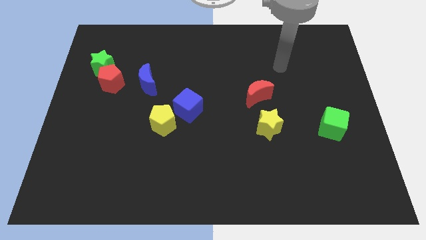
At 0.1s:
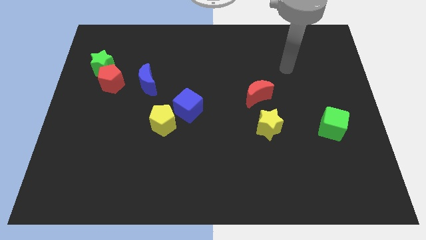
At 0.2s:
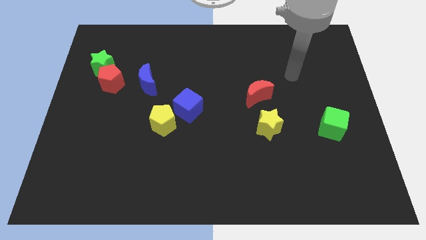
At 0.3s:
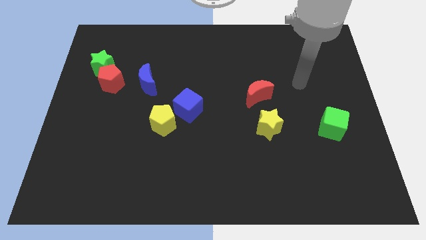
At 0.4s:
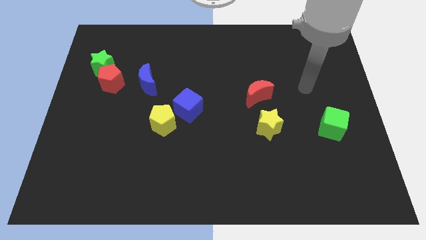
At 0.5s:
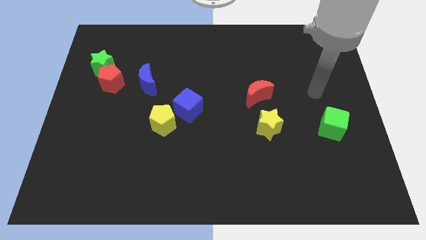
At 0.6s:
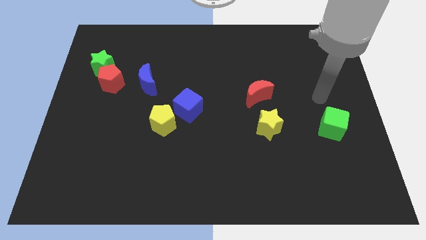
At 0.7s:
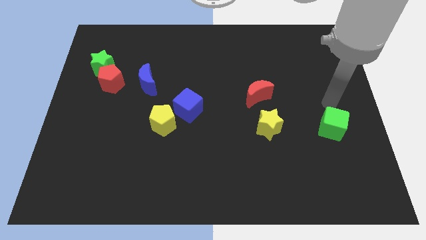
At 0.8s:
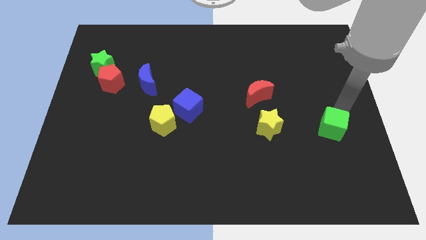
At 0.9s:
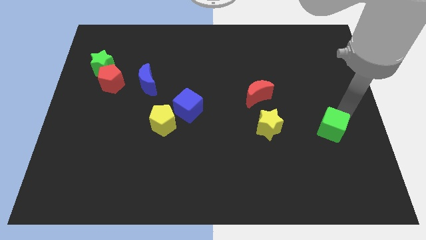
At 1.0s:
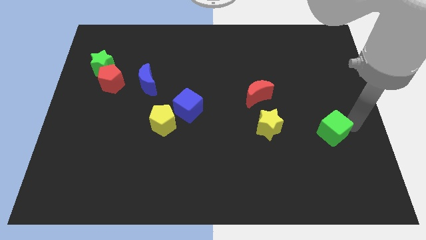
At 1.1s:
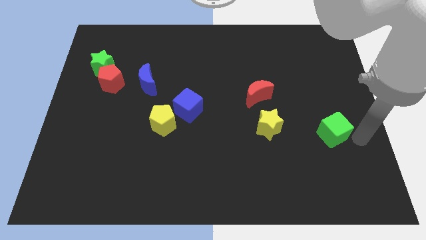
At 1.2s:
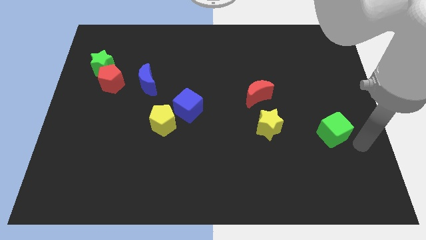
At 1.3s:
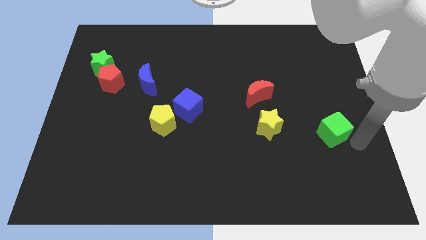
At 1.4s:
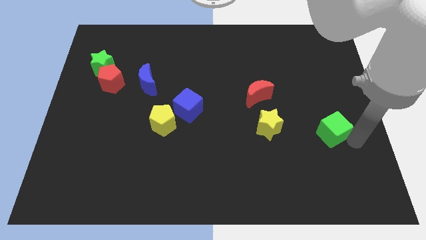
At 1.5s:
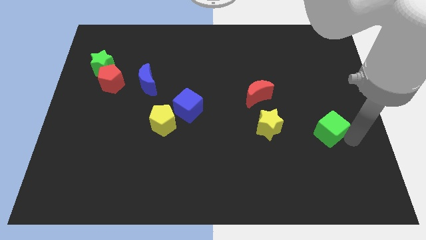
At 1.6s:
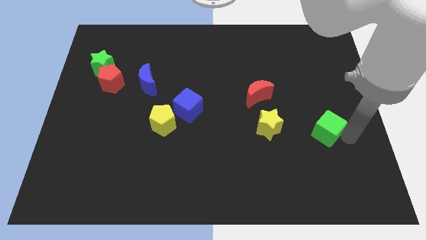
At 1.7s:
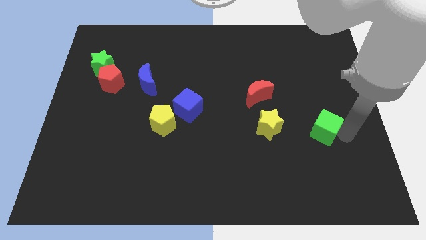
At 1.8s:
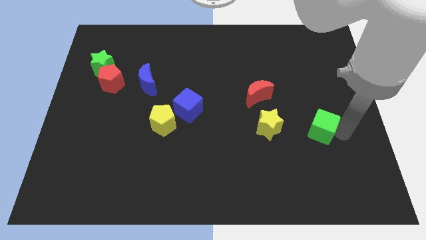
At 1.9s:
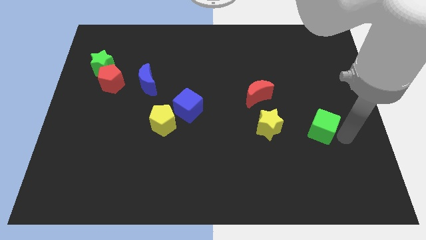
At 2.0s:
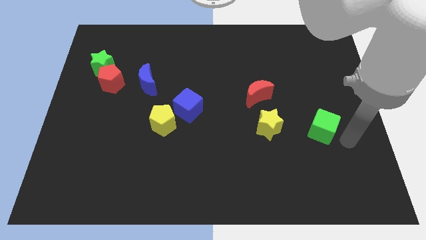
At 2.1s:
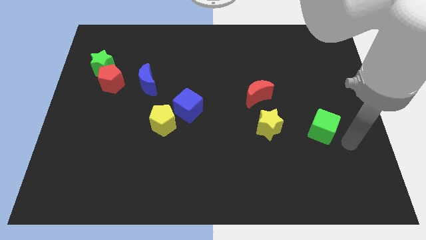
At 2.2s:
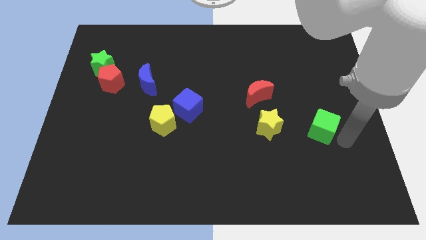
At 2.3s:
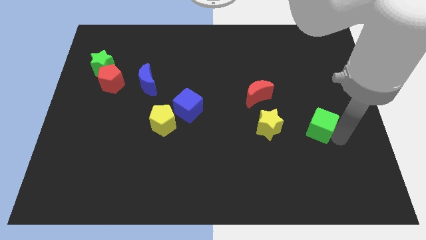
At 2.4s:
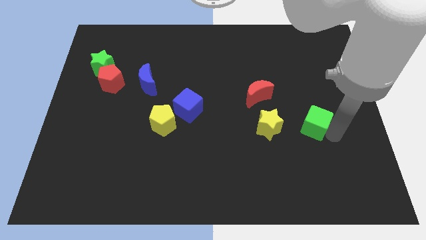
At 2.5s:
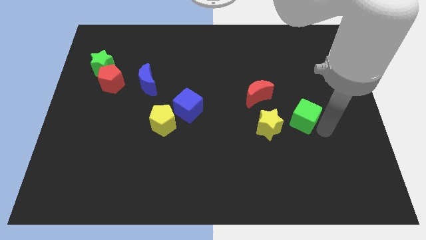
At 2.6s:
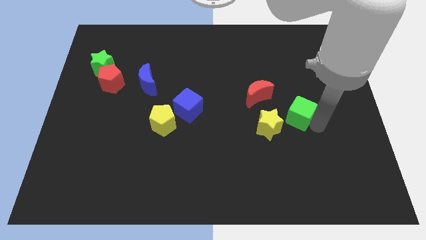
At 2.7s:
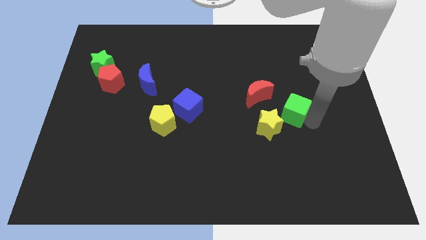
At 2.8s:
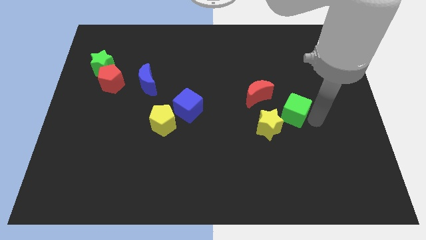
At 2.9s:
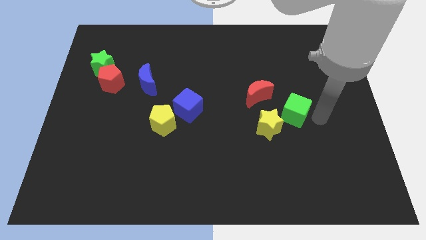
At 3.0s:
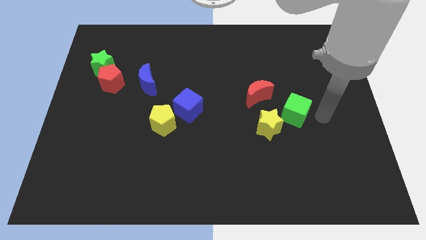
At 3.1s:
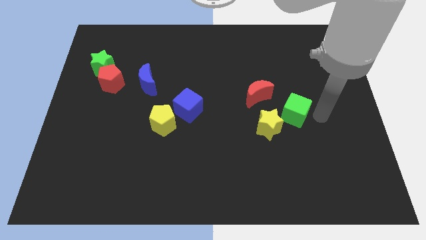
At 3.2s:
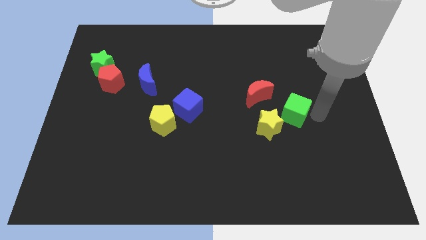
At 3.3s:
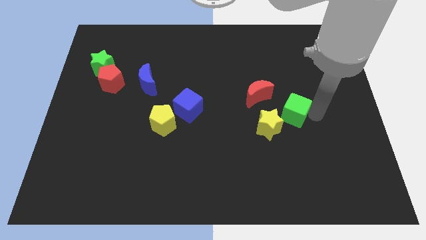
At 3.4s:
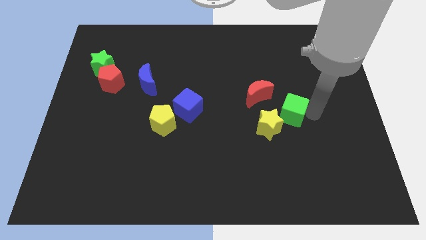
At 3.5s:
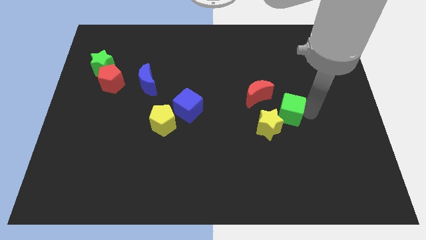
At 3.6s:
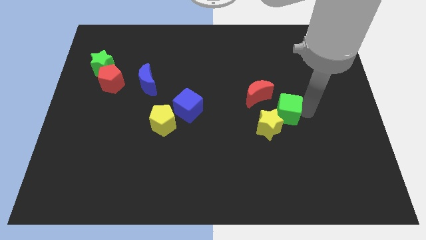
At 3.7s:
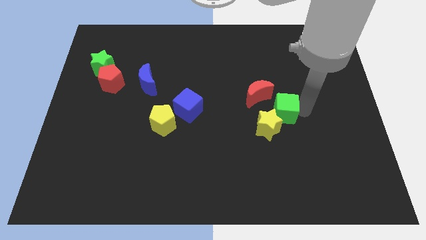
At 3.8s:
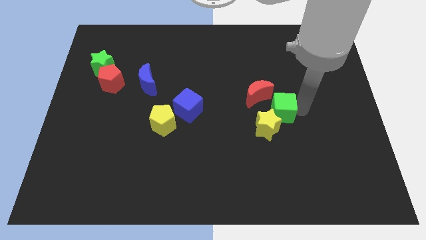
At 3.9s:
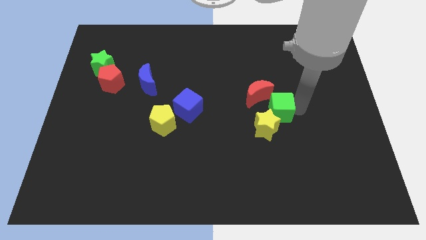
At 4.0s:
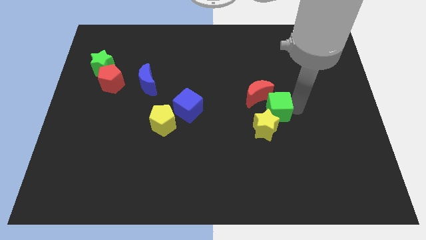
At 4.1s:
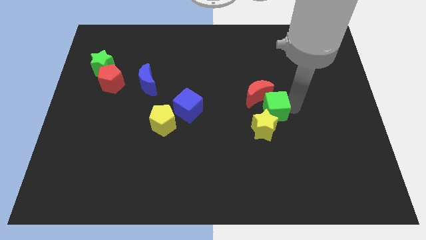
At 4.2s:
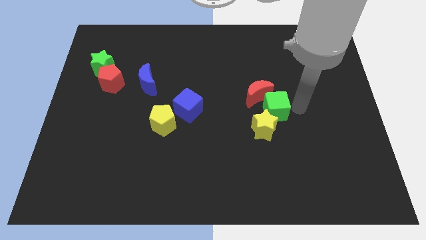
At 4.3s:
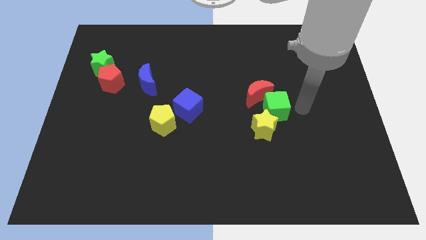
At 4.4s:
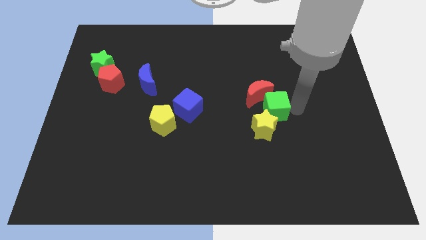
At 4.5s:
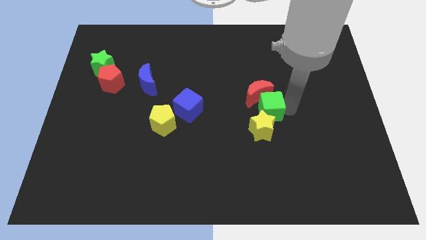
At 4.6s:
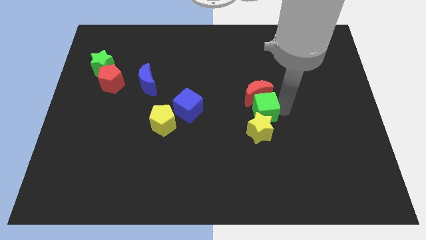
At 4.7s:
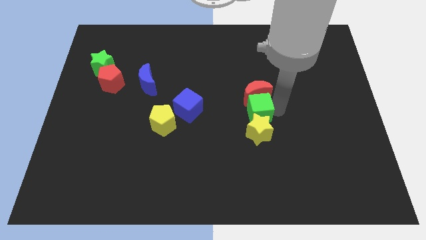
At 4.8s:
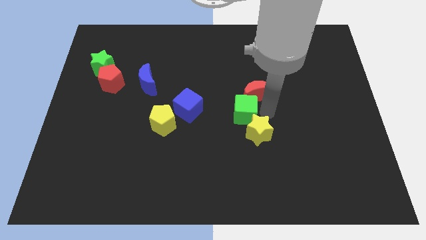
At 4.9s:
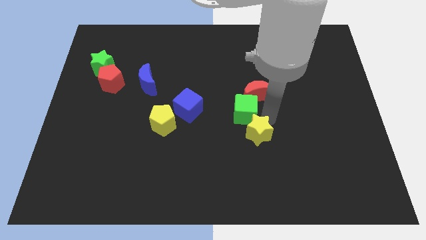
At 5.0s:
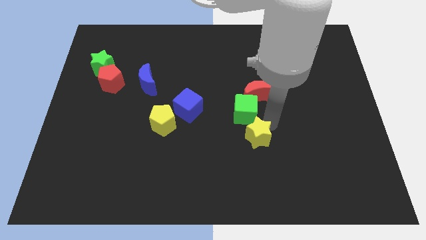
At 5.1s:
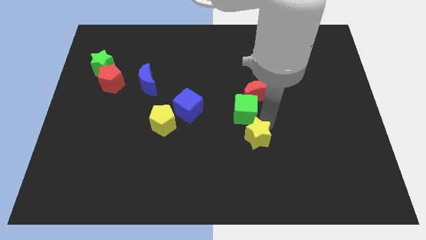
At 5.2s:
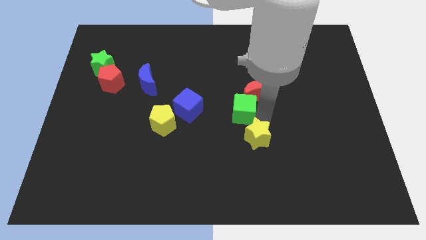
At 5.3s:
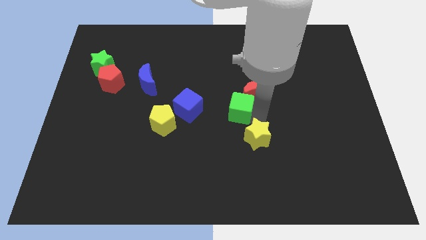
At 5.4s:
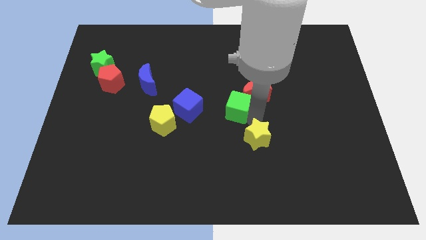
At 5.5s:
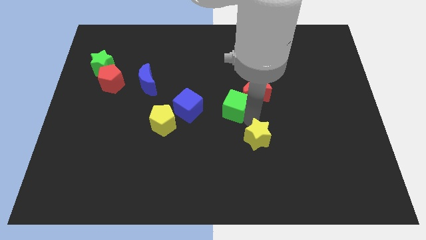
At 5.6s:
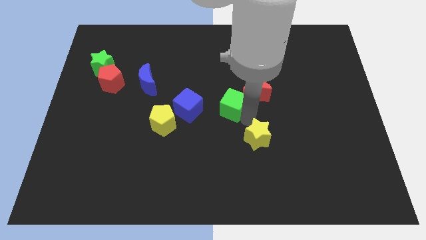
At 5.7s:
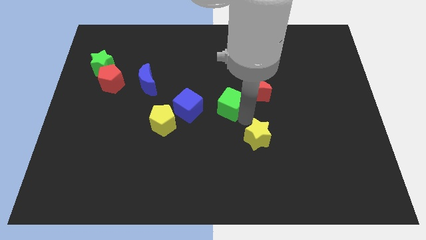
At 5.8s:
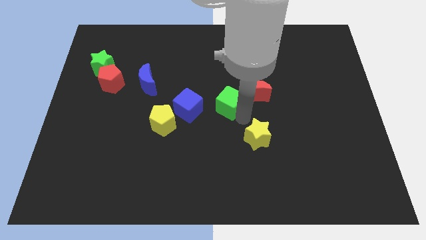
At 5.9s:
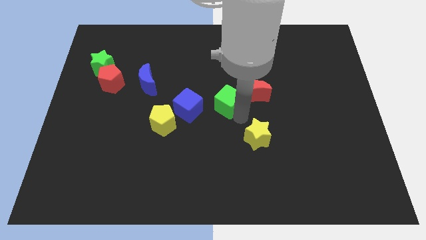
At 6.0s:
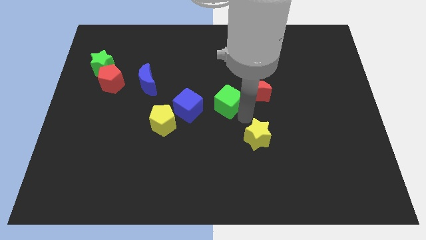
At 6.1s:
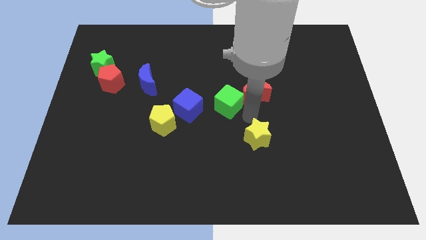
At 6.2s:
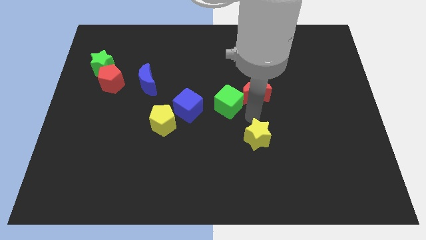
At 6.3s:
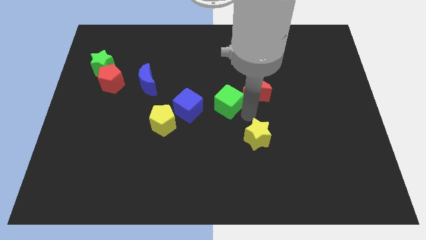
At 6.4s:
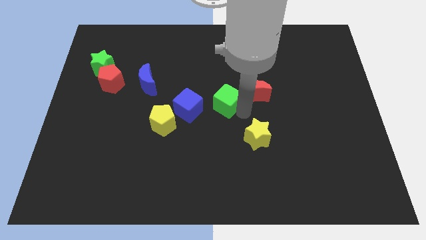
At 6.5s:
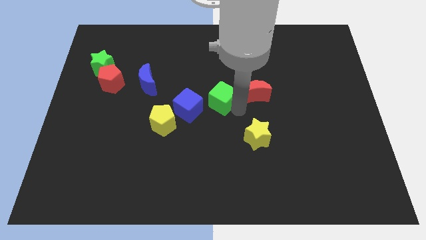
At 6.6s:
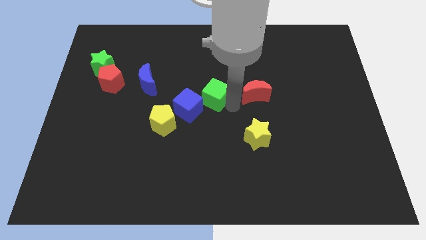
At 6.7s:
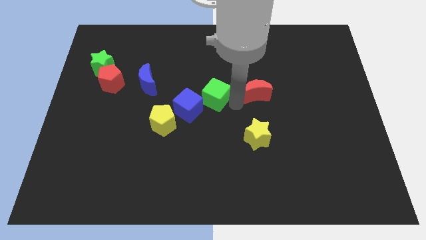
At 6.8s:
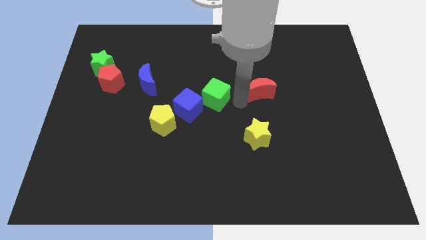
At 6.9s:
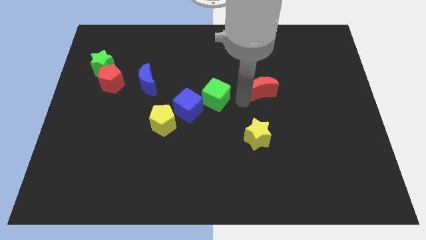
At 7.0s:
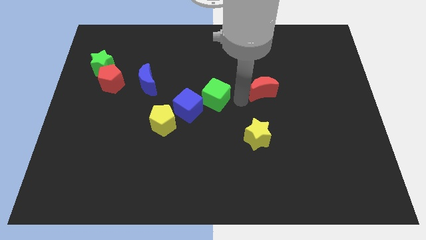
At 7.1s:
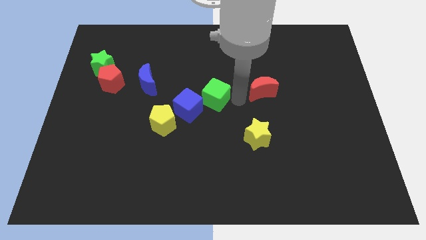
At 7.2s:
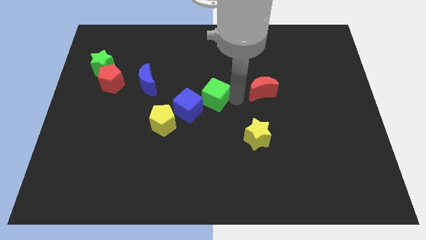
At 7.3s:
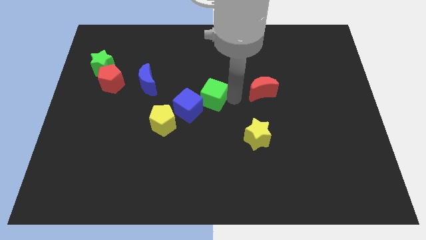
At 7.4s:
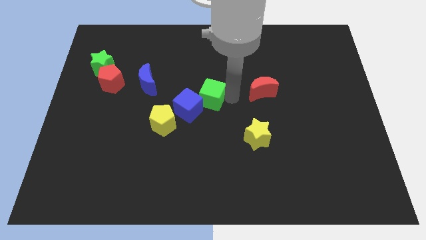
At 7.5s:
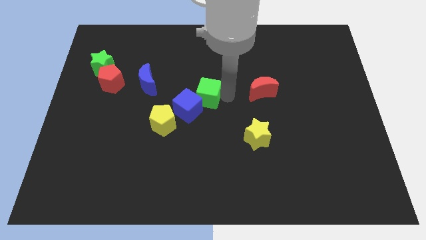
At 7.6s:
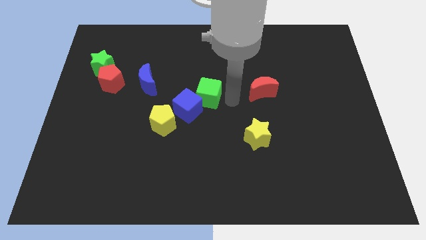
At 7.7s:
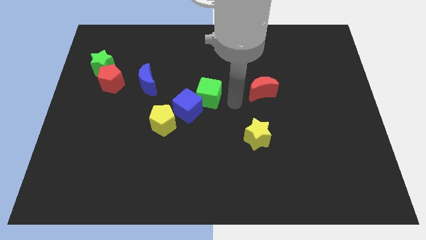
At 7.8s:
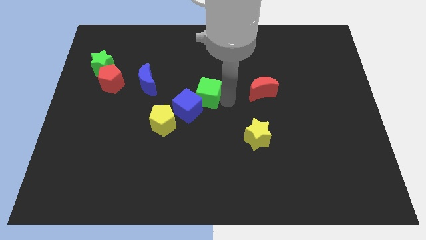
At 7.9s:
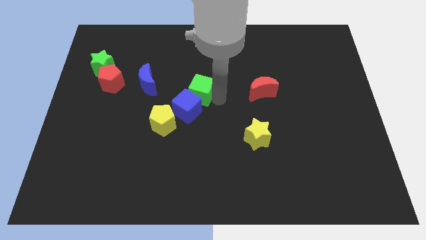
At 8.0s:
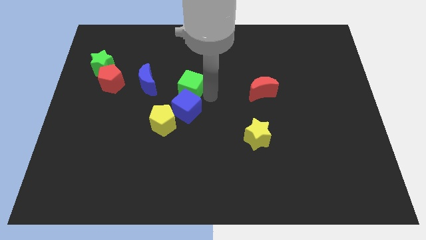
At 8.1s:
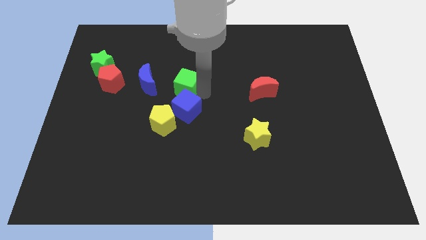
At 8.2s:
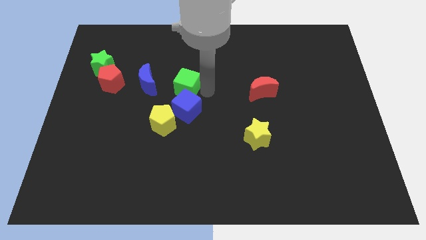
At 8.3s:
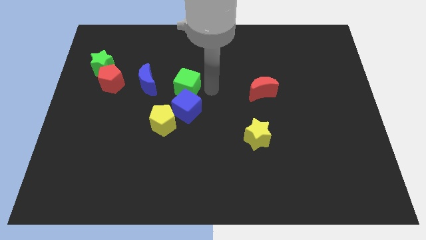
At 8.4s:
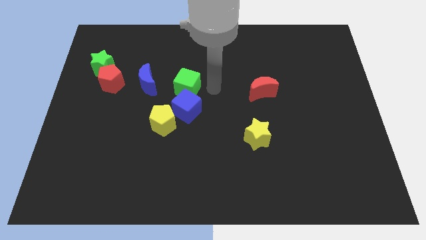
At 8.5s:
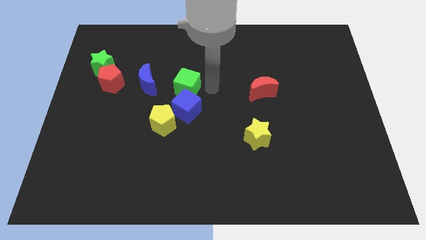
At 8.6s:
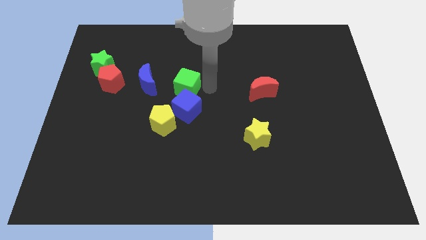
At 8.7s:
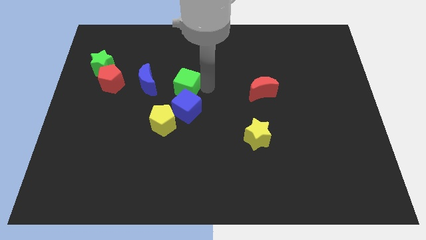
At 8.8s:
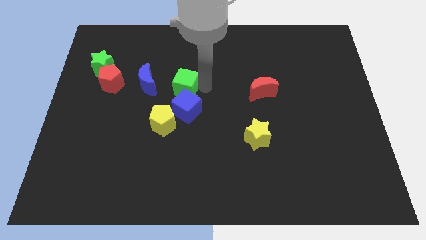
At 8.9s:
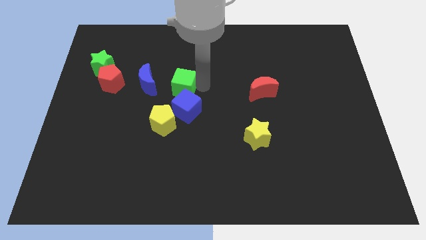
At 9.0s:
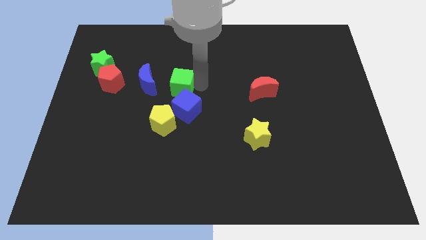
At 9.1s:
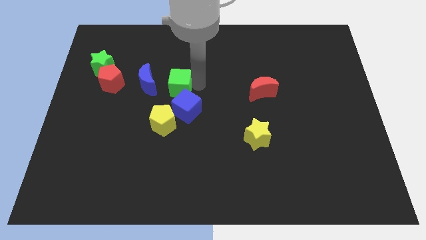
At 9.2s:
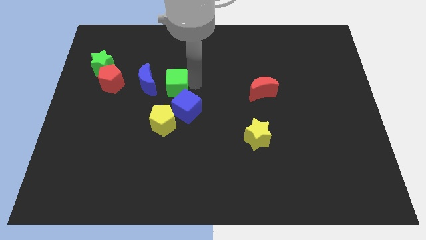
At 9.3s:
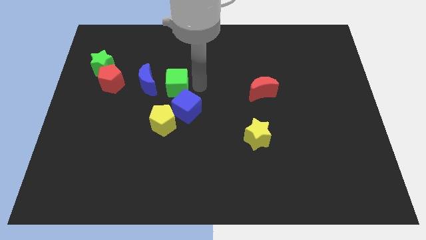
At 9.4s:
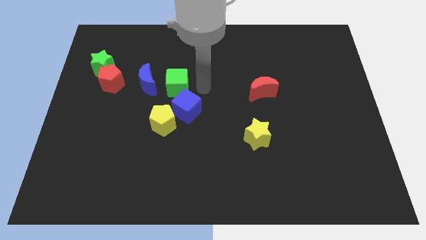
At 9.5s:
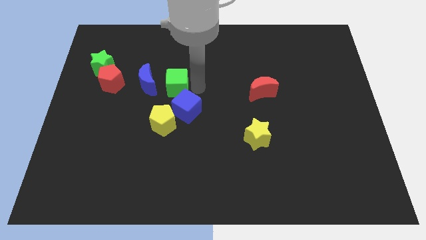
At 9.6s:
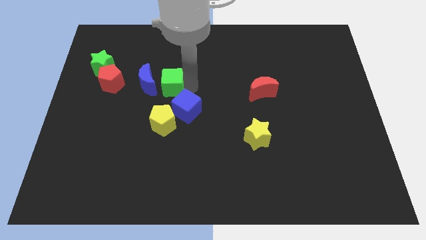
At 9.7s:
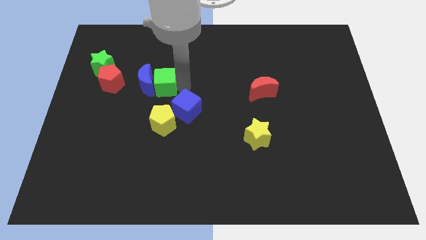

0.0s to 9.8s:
move the green cube towards the blue moon
